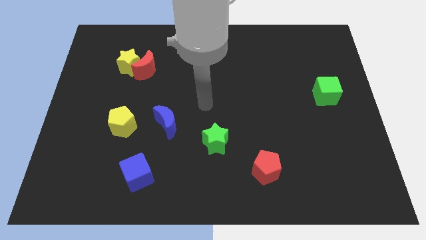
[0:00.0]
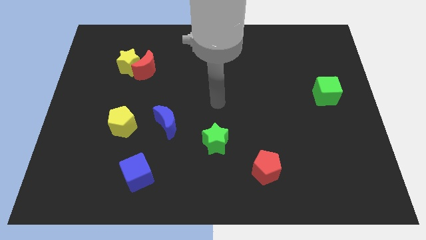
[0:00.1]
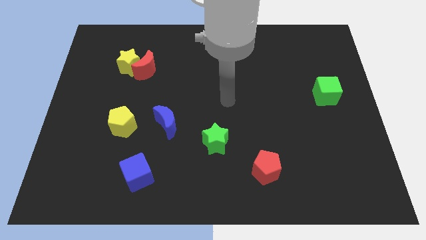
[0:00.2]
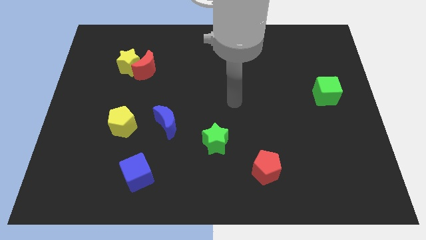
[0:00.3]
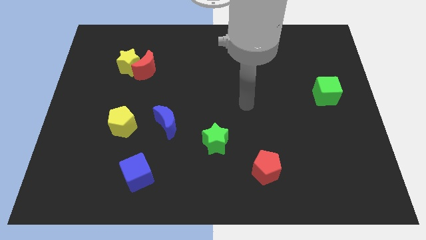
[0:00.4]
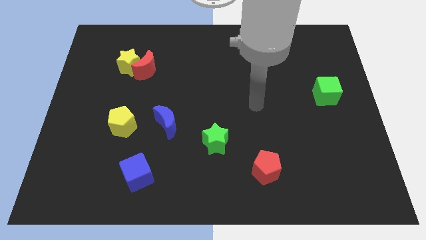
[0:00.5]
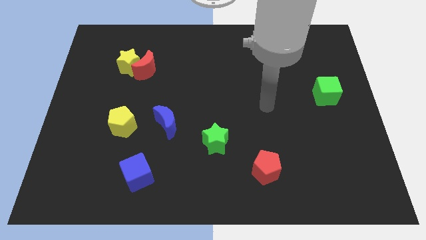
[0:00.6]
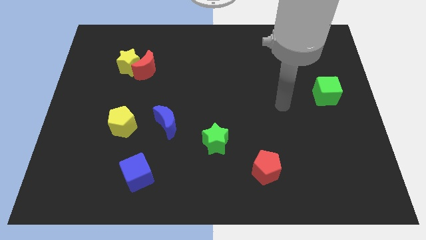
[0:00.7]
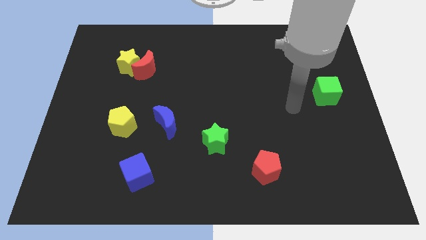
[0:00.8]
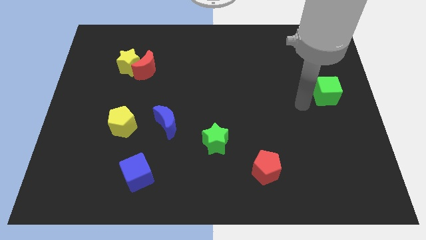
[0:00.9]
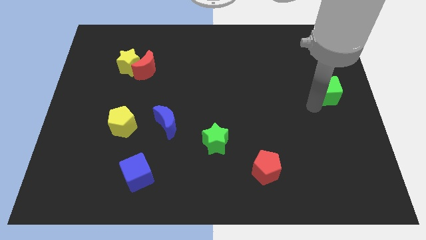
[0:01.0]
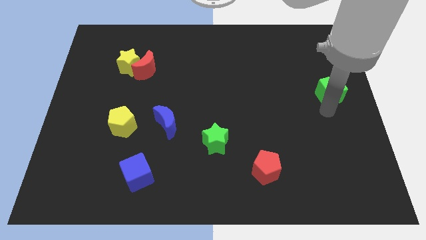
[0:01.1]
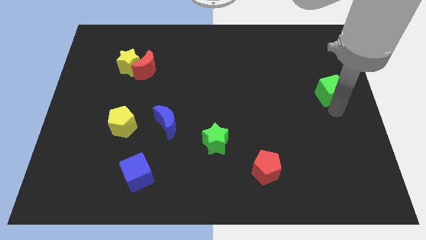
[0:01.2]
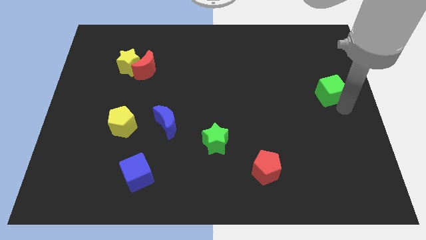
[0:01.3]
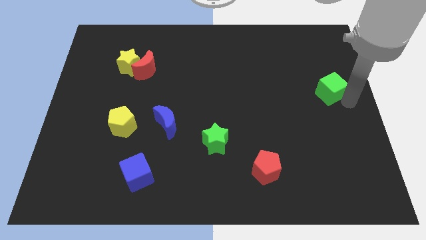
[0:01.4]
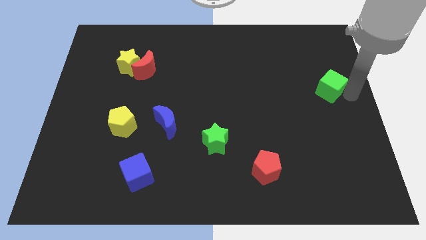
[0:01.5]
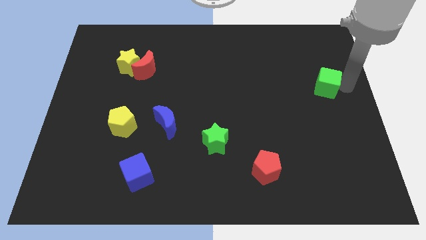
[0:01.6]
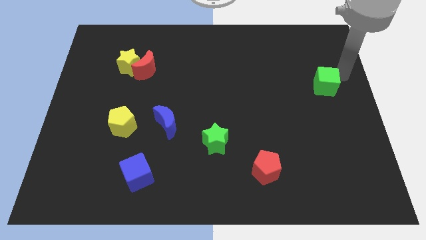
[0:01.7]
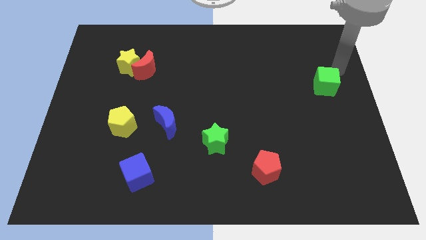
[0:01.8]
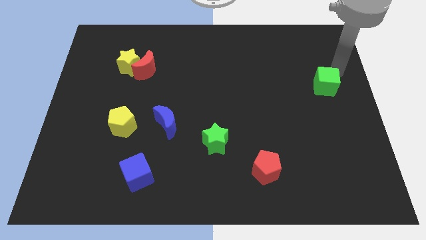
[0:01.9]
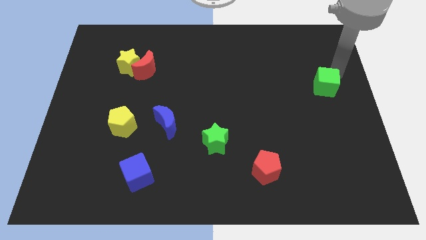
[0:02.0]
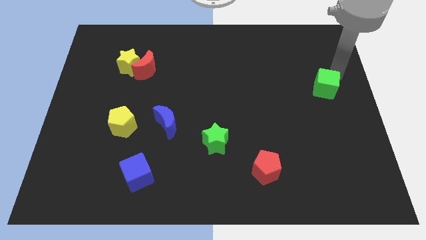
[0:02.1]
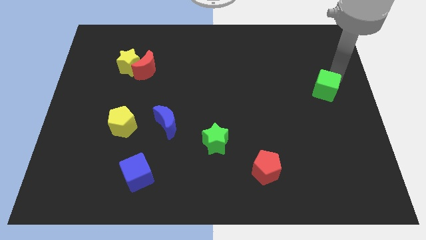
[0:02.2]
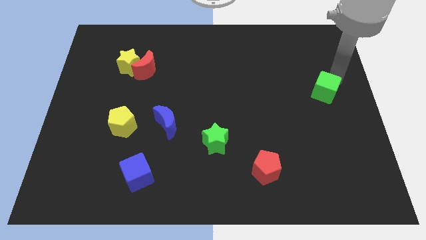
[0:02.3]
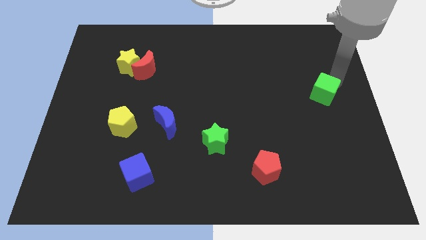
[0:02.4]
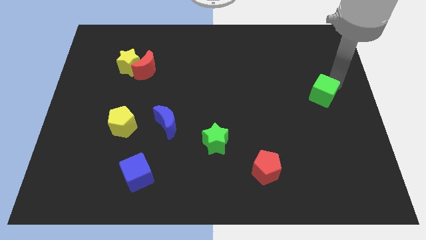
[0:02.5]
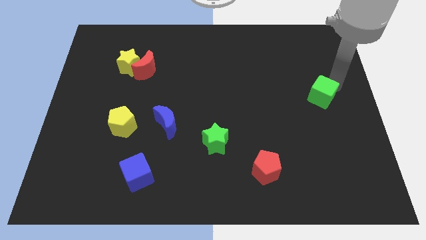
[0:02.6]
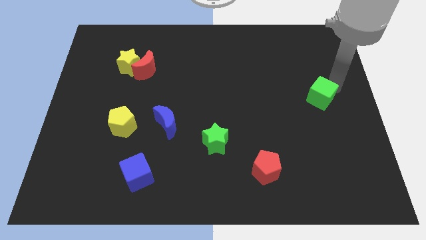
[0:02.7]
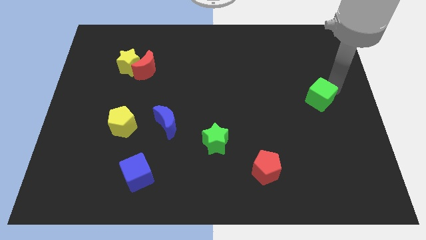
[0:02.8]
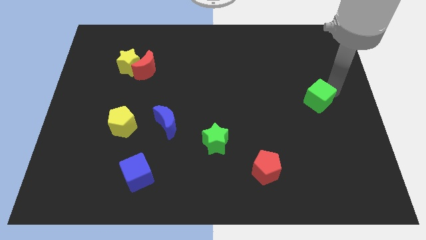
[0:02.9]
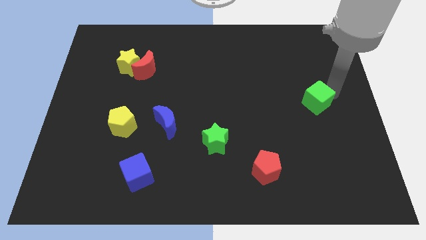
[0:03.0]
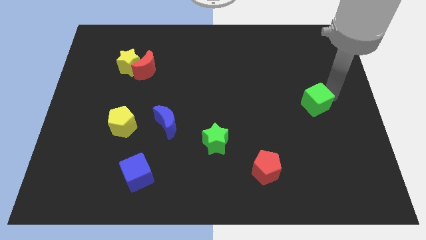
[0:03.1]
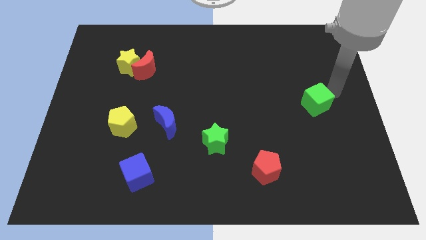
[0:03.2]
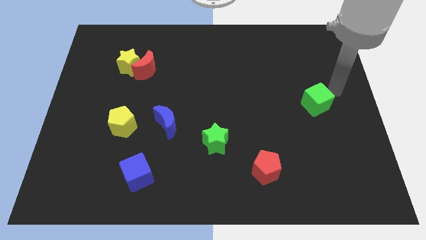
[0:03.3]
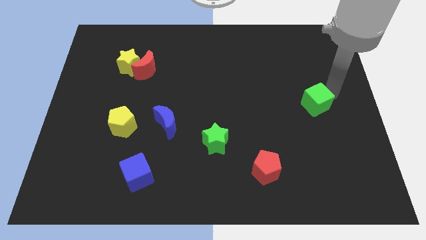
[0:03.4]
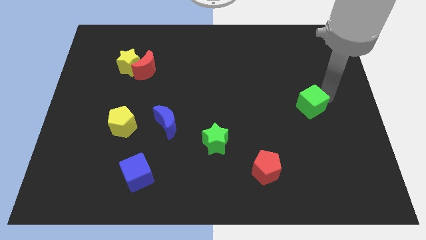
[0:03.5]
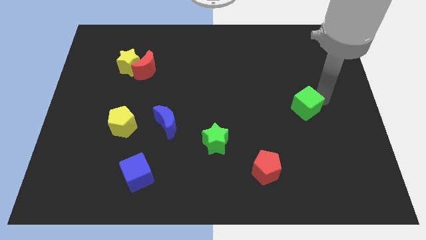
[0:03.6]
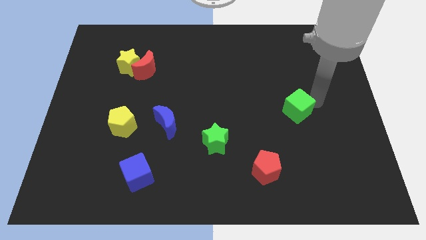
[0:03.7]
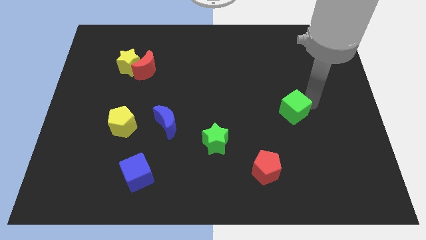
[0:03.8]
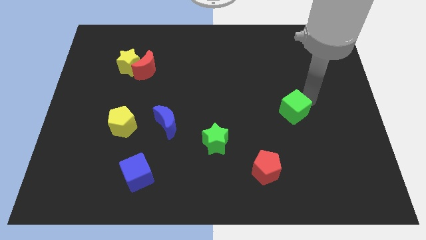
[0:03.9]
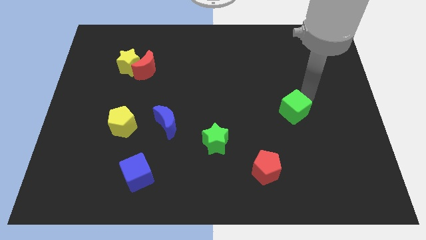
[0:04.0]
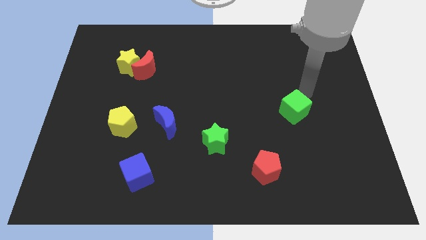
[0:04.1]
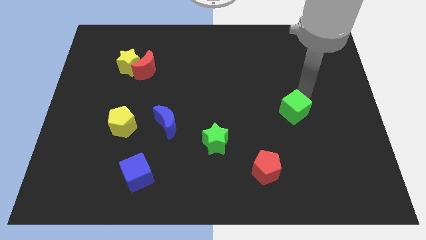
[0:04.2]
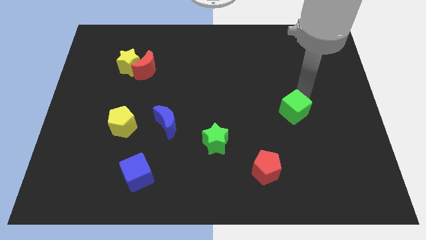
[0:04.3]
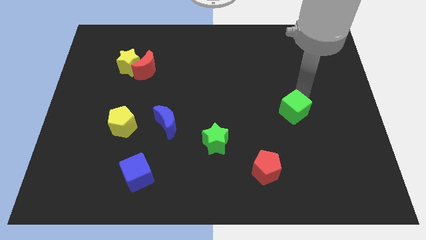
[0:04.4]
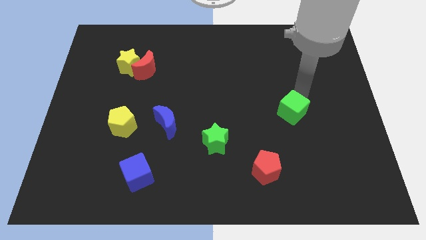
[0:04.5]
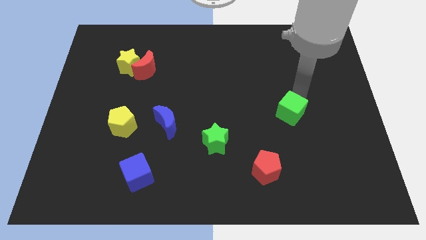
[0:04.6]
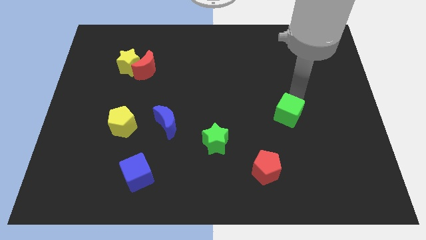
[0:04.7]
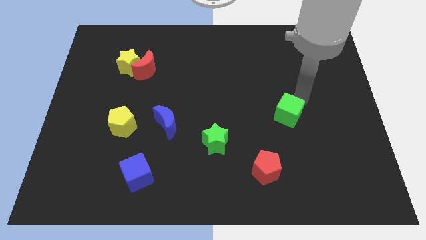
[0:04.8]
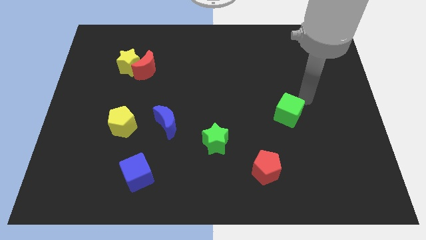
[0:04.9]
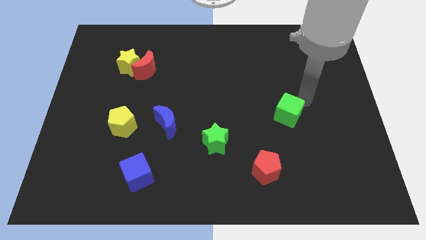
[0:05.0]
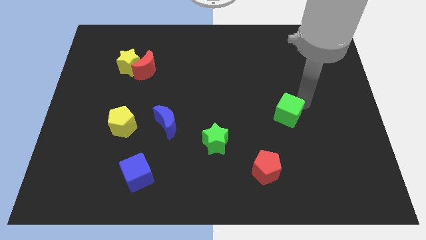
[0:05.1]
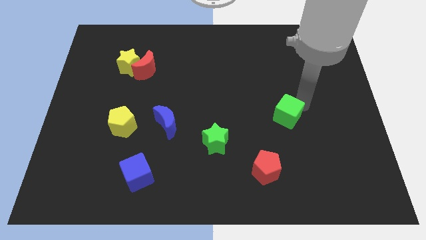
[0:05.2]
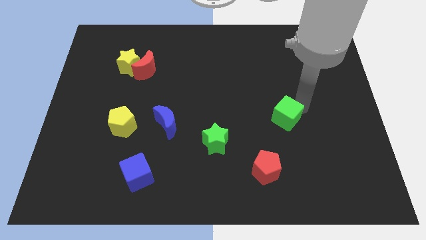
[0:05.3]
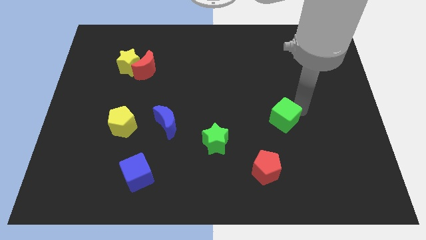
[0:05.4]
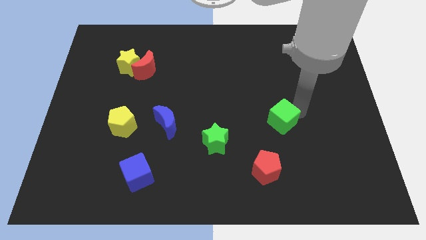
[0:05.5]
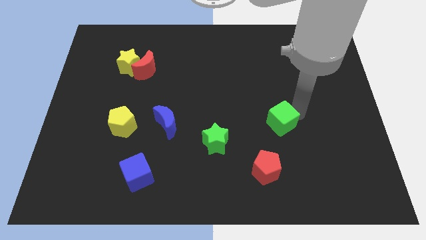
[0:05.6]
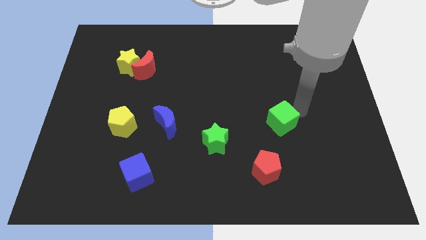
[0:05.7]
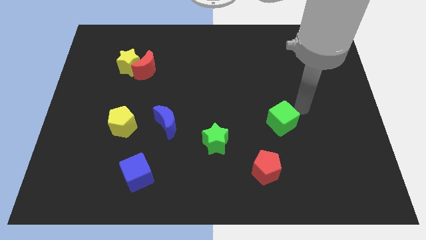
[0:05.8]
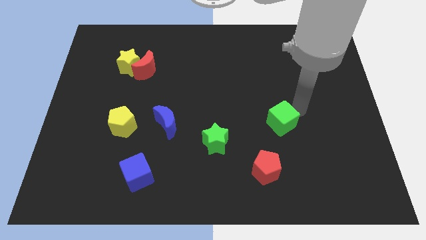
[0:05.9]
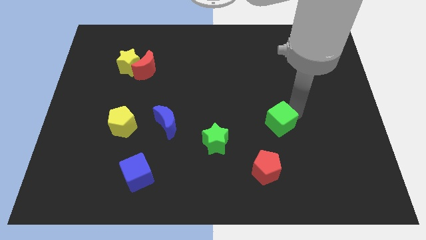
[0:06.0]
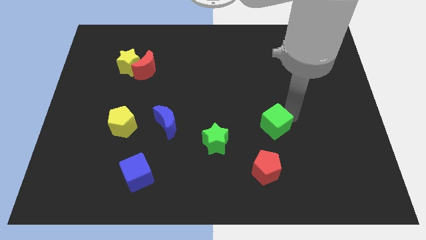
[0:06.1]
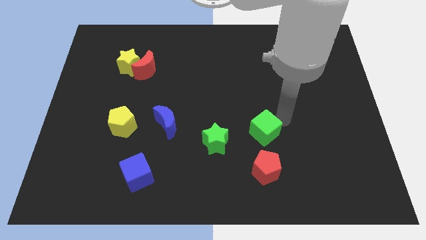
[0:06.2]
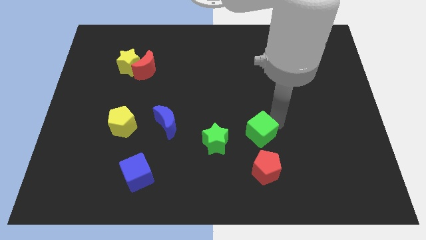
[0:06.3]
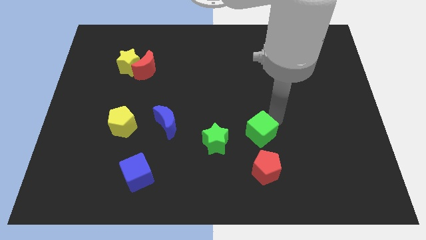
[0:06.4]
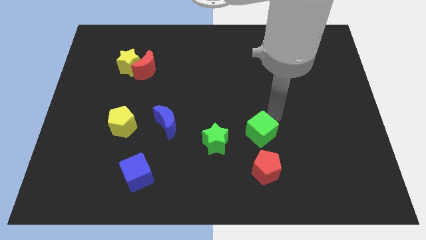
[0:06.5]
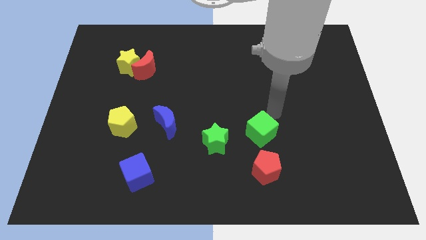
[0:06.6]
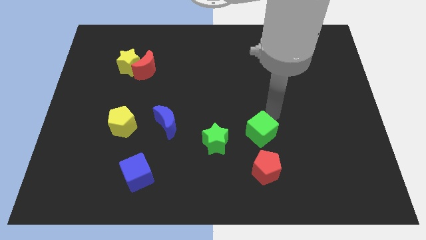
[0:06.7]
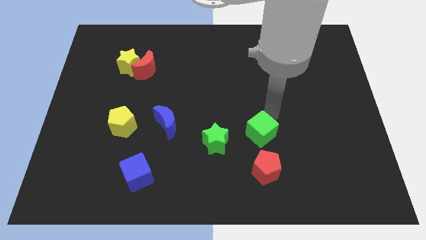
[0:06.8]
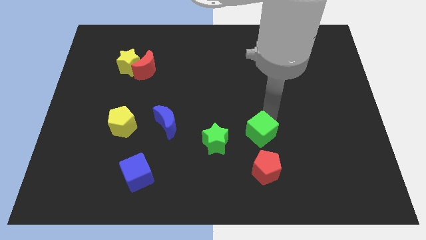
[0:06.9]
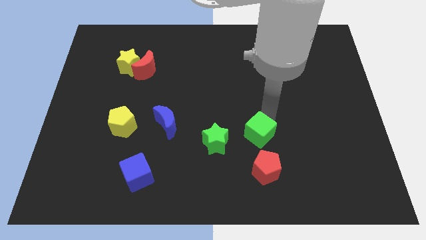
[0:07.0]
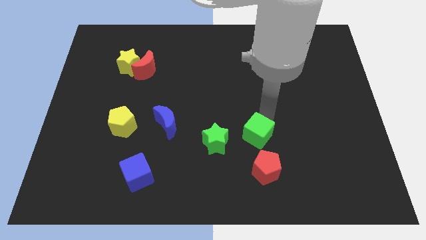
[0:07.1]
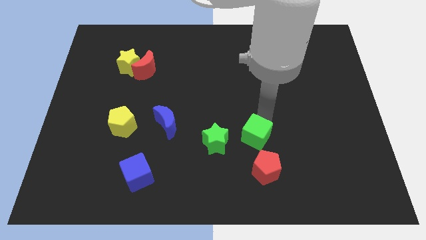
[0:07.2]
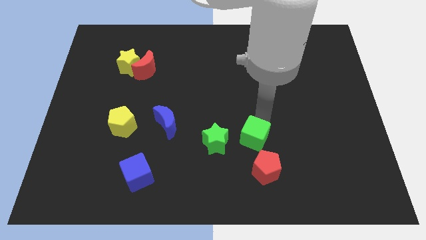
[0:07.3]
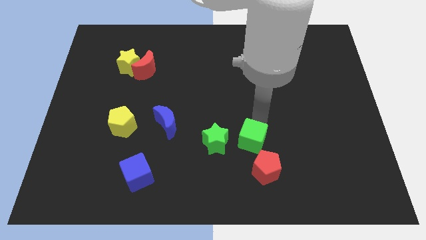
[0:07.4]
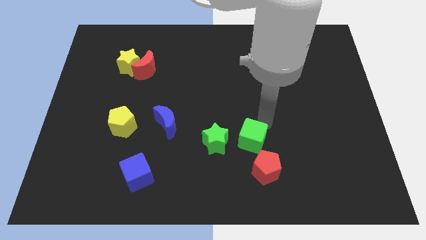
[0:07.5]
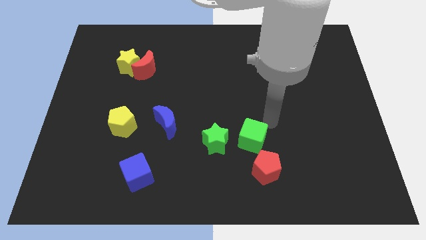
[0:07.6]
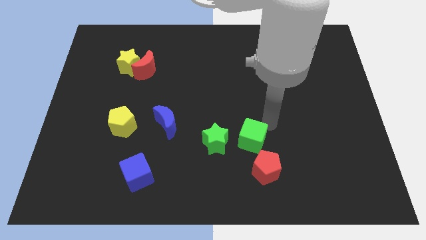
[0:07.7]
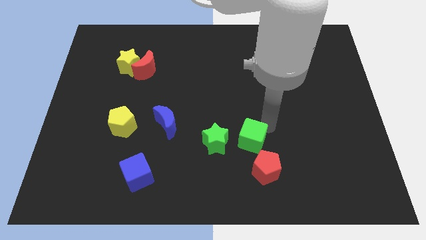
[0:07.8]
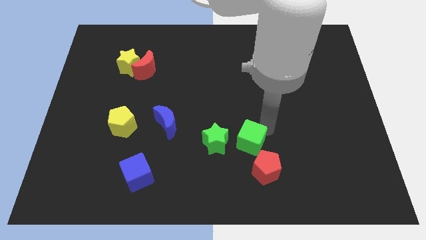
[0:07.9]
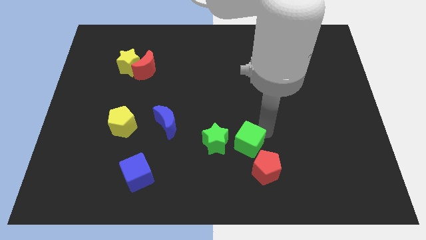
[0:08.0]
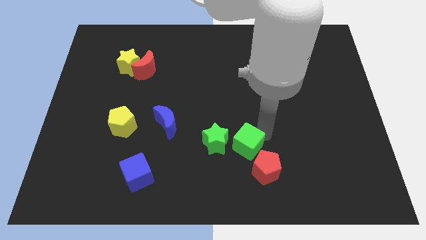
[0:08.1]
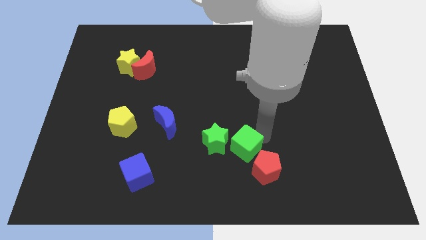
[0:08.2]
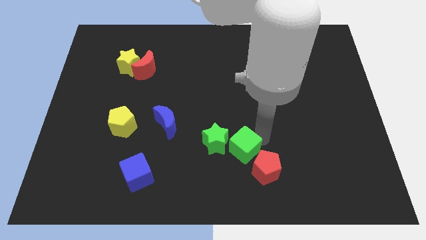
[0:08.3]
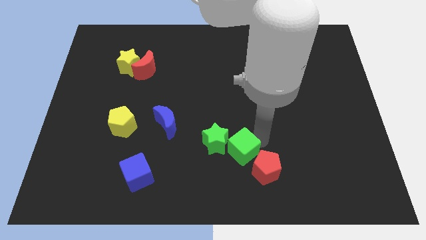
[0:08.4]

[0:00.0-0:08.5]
push the green cube to the left side of the red pentagon
